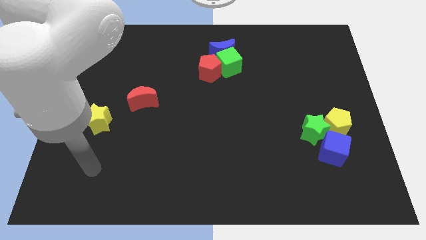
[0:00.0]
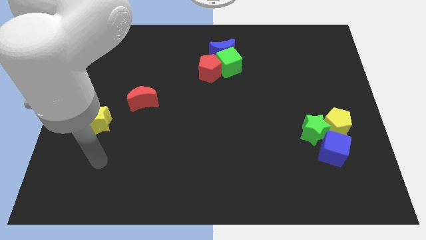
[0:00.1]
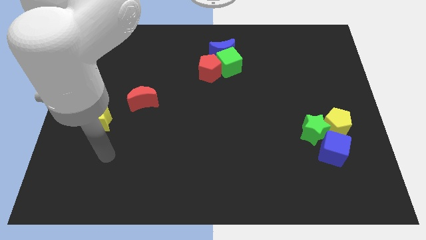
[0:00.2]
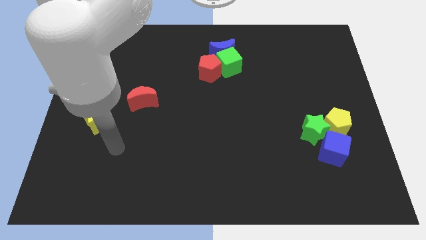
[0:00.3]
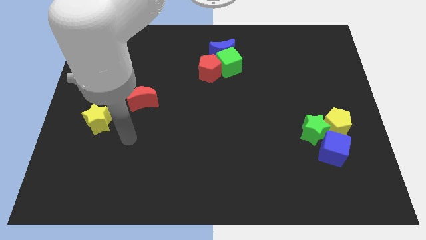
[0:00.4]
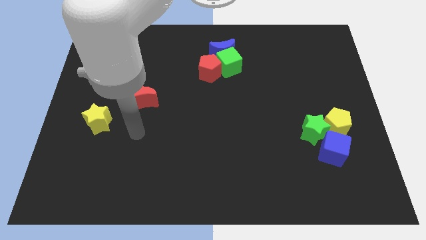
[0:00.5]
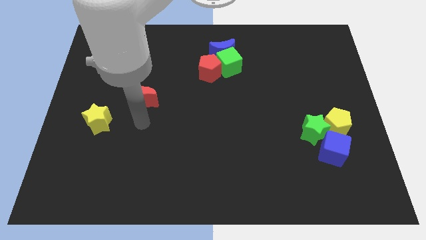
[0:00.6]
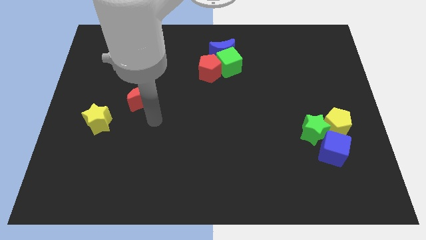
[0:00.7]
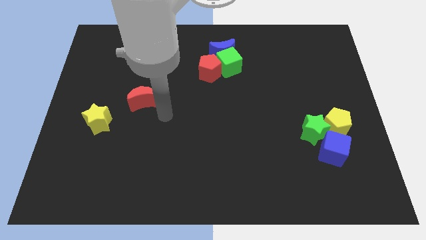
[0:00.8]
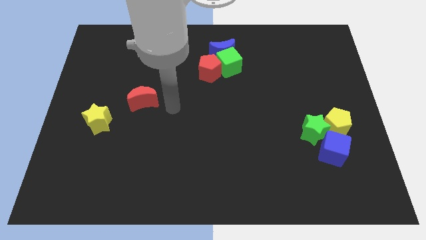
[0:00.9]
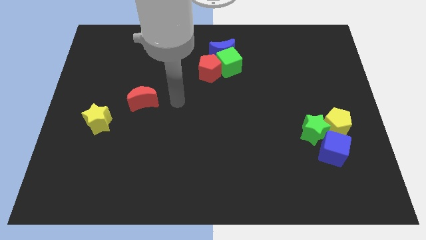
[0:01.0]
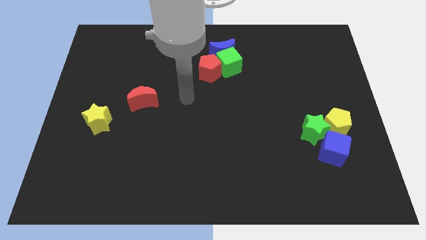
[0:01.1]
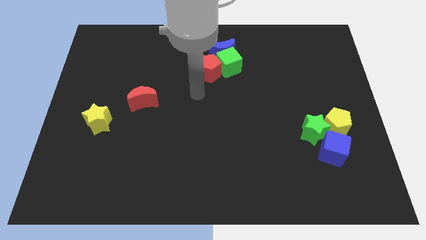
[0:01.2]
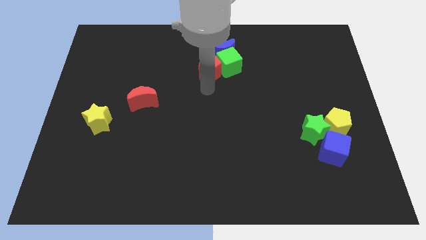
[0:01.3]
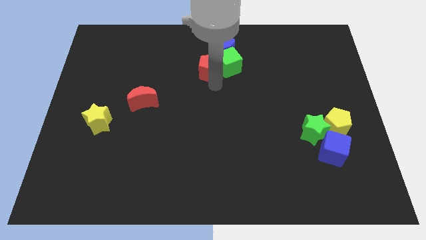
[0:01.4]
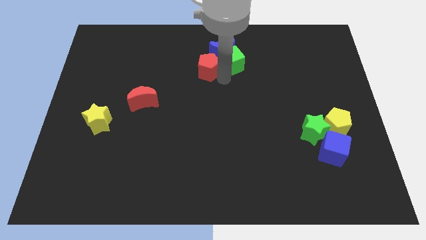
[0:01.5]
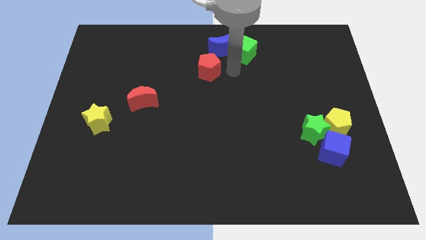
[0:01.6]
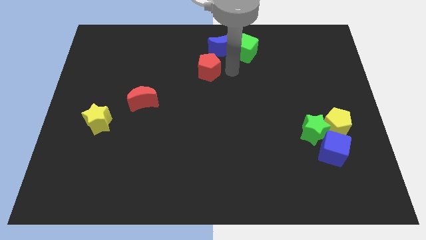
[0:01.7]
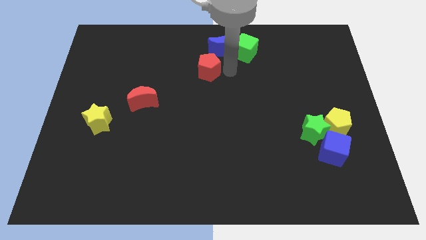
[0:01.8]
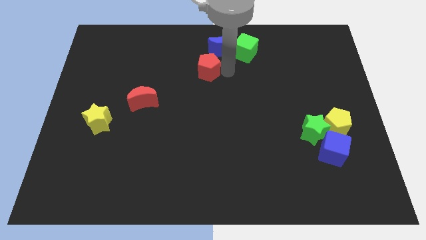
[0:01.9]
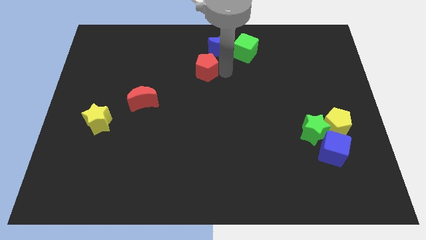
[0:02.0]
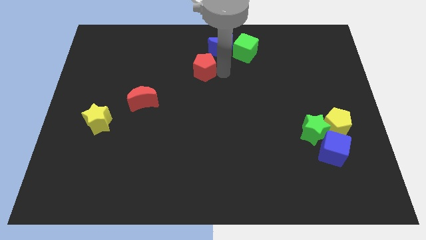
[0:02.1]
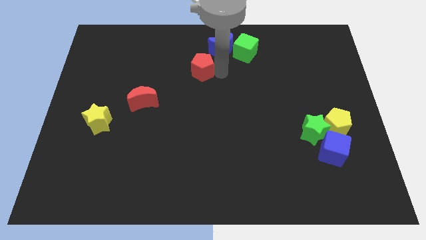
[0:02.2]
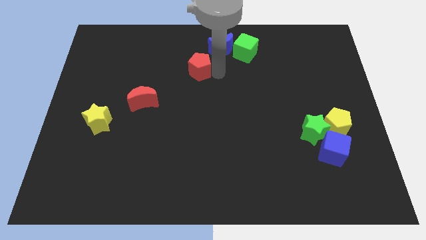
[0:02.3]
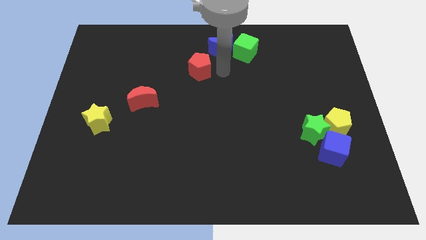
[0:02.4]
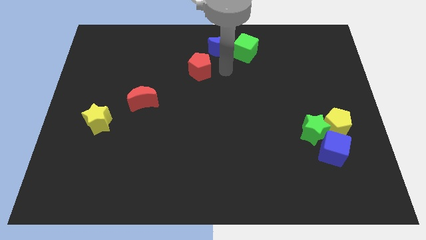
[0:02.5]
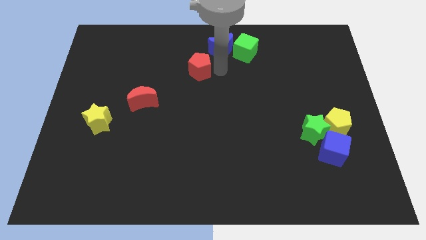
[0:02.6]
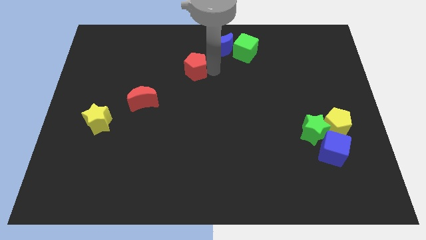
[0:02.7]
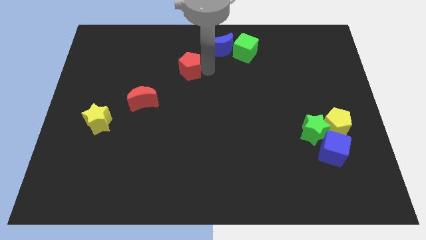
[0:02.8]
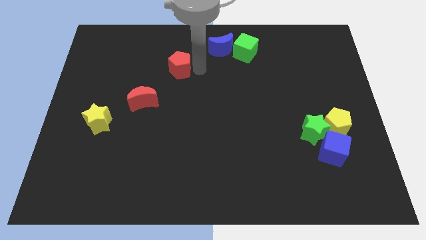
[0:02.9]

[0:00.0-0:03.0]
slightly push the red pentagon left

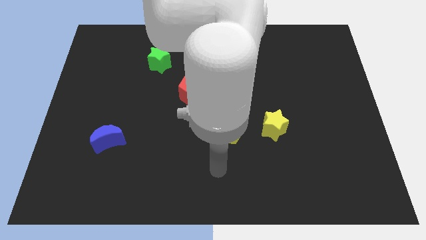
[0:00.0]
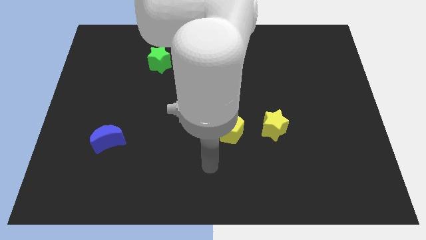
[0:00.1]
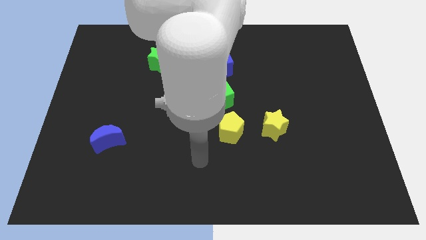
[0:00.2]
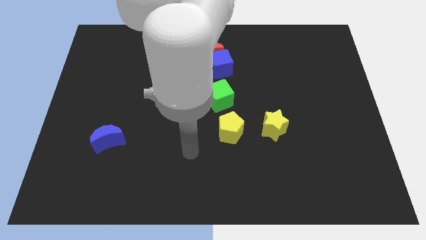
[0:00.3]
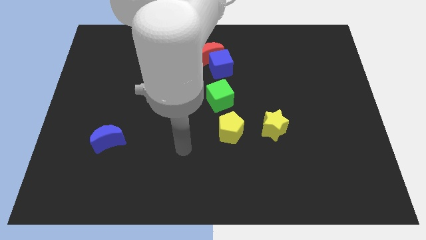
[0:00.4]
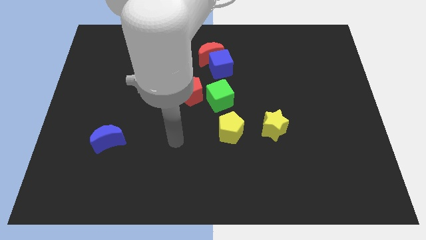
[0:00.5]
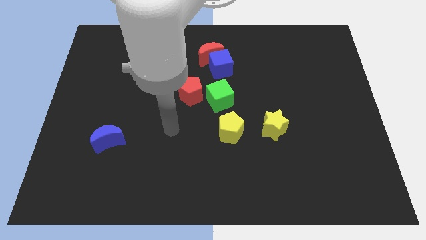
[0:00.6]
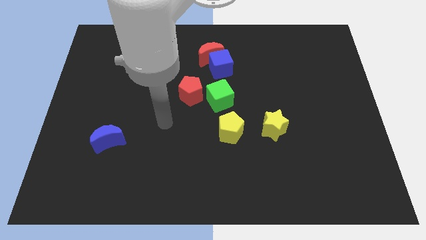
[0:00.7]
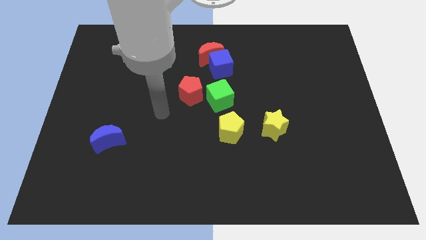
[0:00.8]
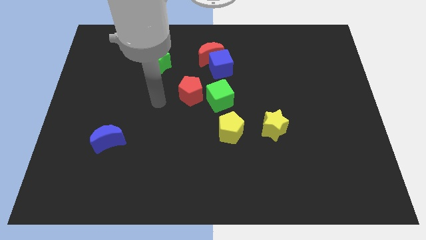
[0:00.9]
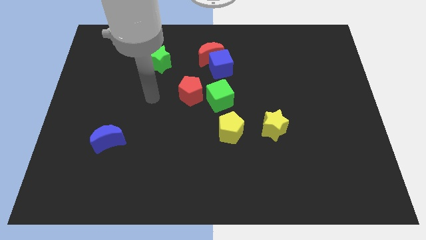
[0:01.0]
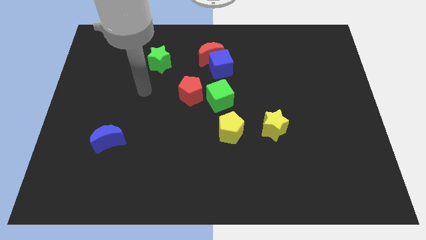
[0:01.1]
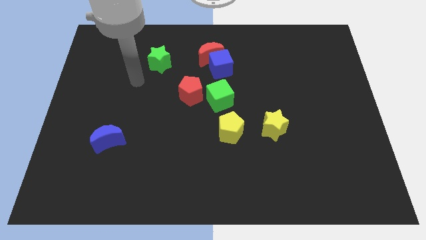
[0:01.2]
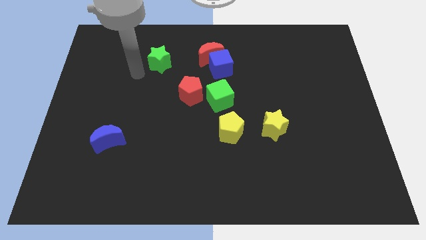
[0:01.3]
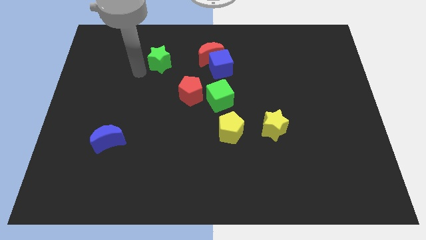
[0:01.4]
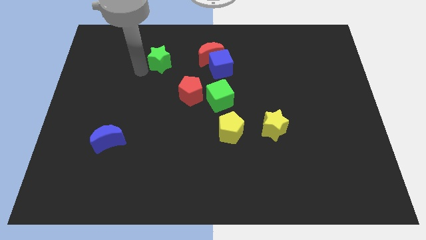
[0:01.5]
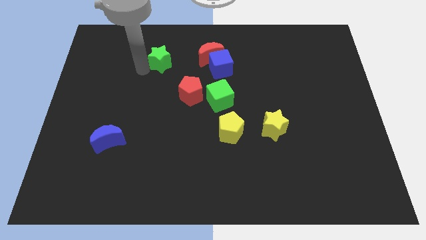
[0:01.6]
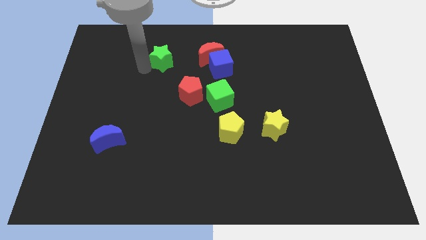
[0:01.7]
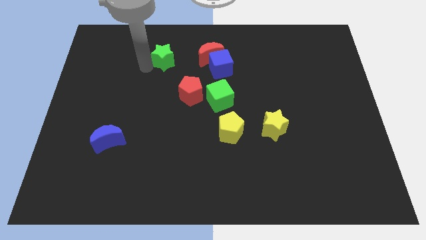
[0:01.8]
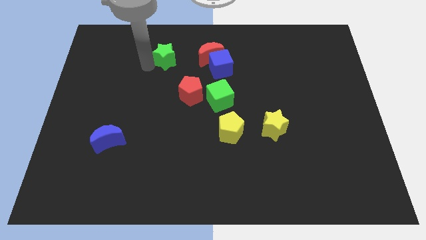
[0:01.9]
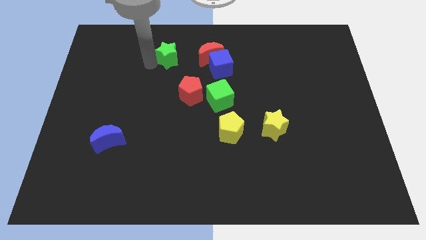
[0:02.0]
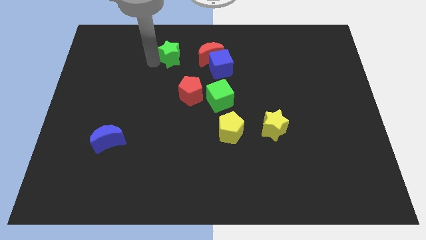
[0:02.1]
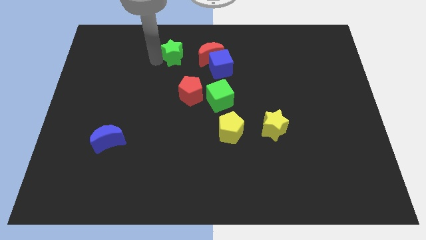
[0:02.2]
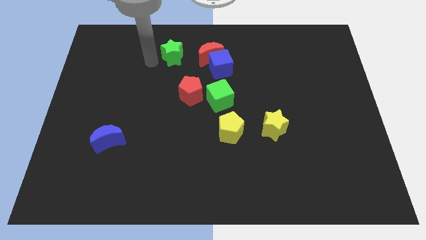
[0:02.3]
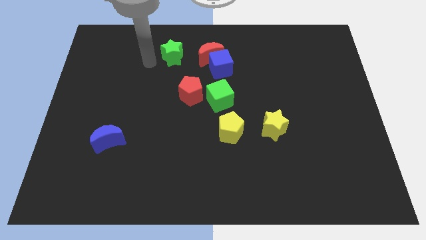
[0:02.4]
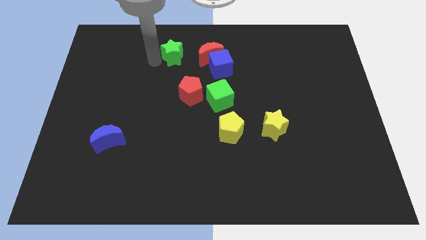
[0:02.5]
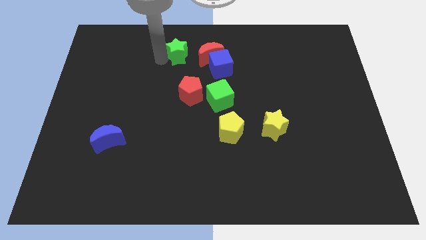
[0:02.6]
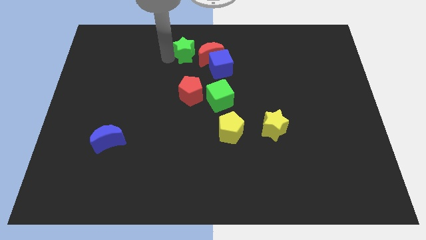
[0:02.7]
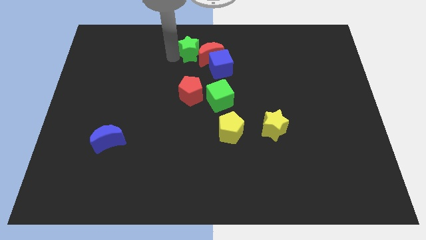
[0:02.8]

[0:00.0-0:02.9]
slightly push the green star right

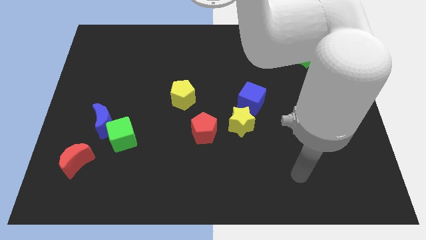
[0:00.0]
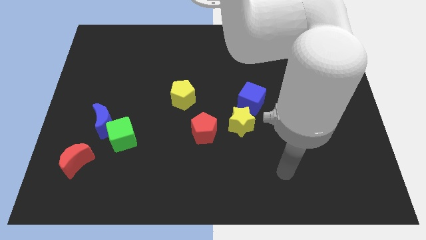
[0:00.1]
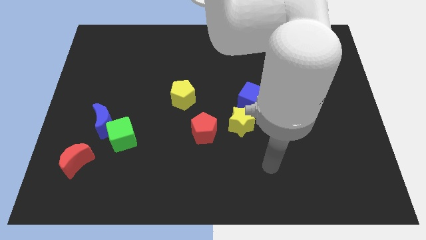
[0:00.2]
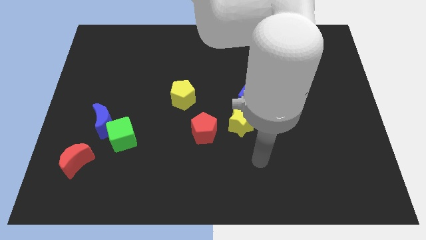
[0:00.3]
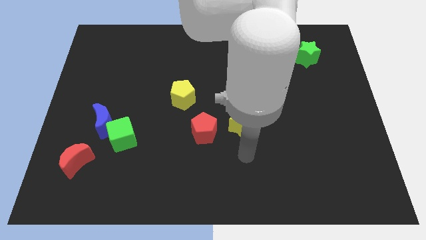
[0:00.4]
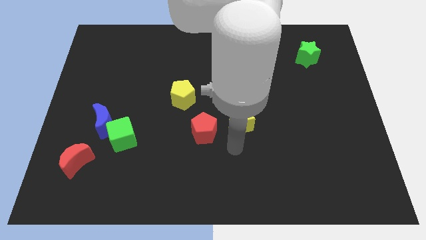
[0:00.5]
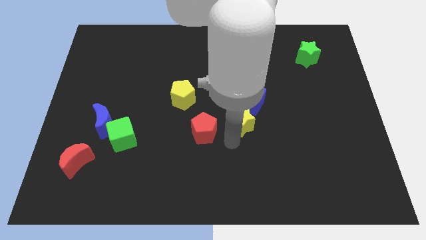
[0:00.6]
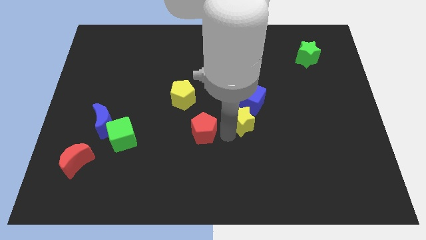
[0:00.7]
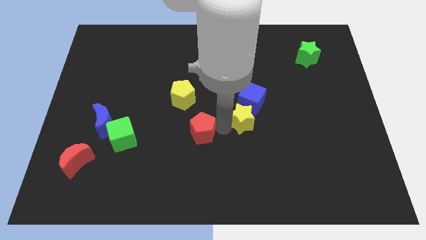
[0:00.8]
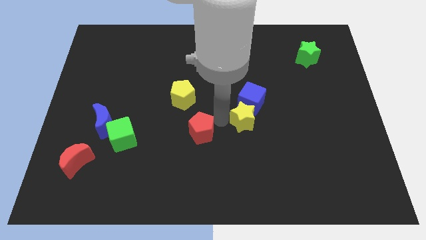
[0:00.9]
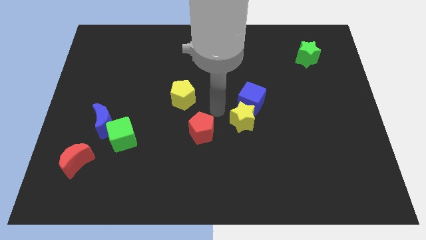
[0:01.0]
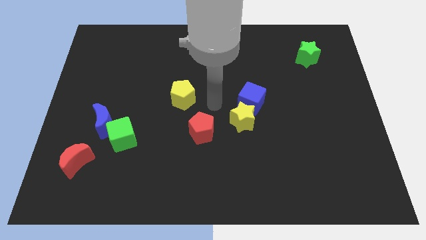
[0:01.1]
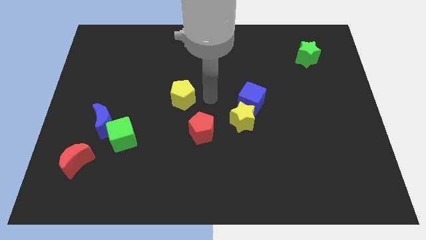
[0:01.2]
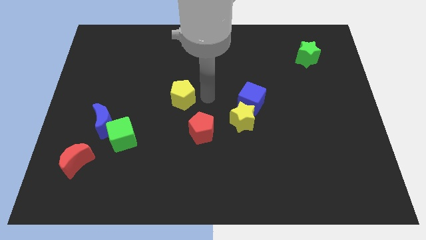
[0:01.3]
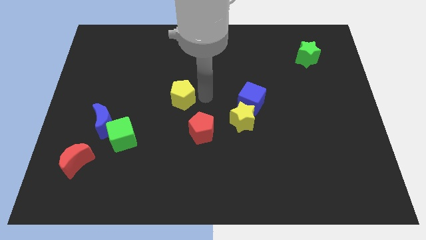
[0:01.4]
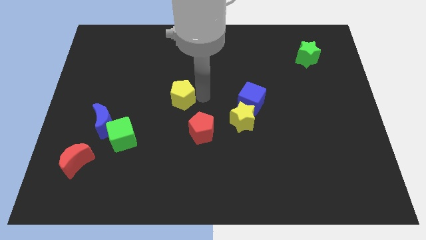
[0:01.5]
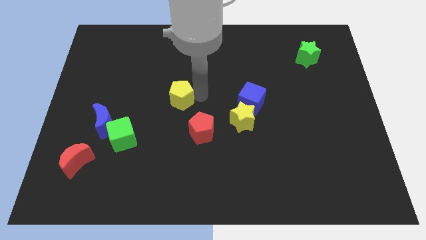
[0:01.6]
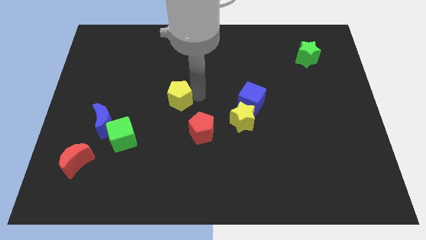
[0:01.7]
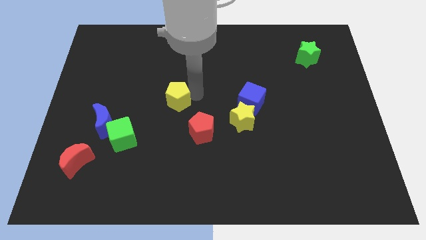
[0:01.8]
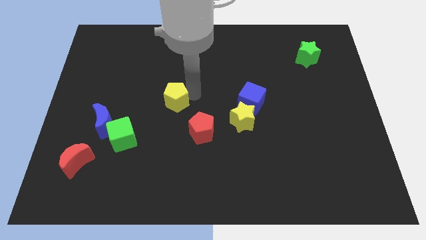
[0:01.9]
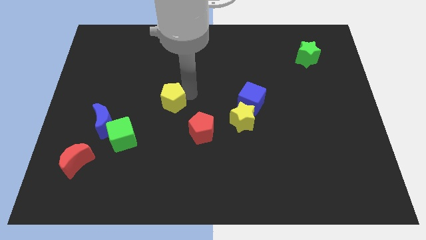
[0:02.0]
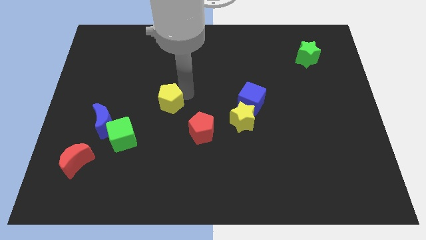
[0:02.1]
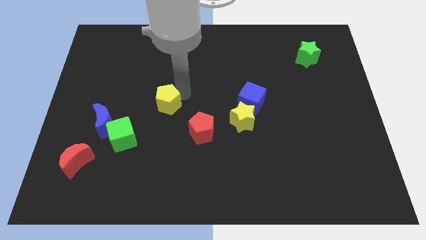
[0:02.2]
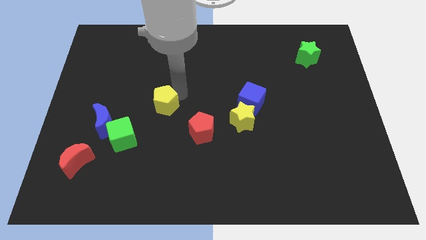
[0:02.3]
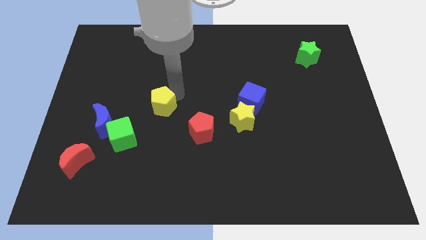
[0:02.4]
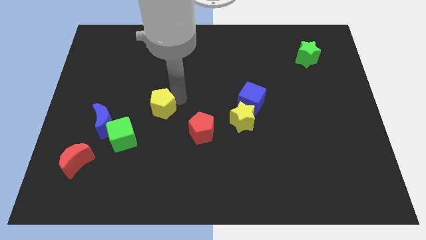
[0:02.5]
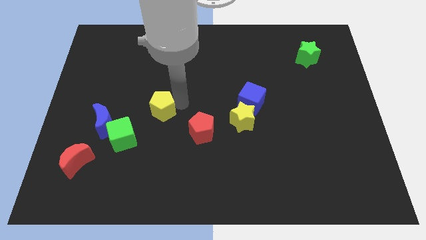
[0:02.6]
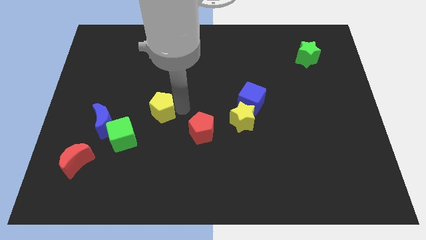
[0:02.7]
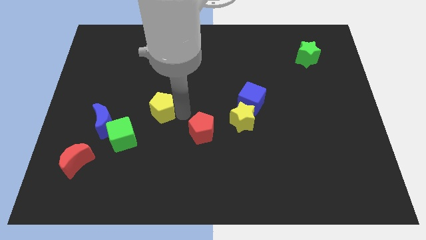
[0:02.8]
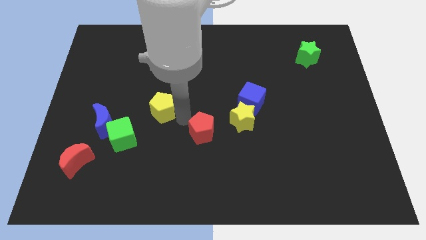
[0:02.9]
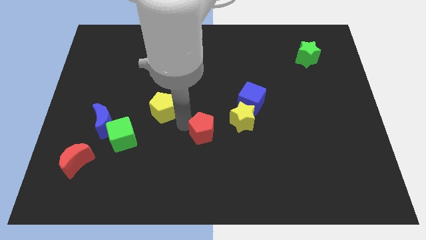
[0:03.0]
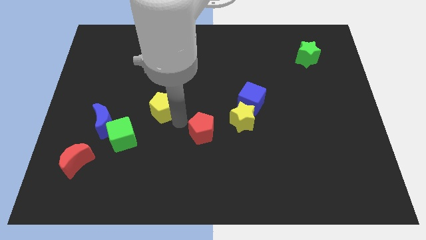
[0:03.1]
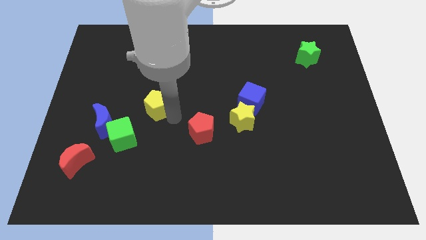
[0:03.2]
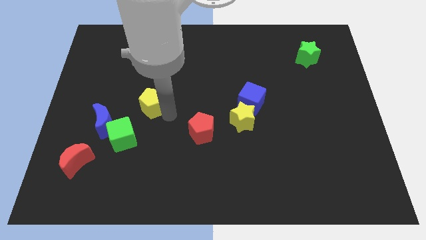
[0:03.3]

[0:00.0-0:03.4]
move the yellow pentagon left a little
